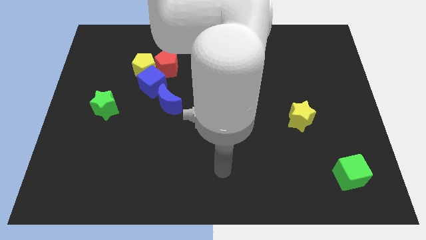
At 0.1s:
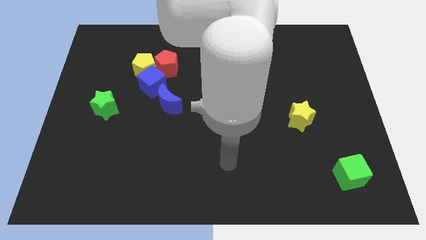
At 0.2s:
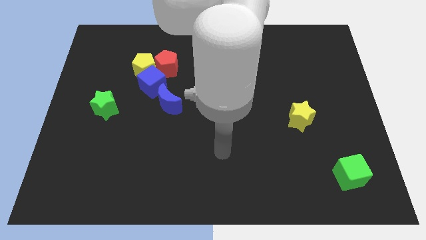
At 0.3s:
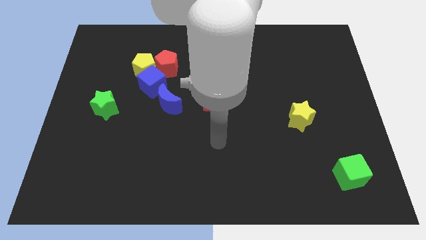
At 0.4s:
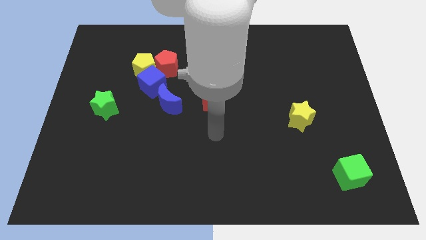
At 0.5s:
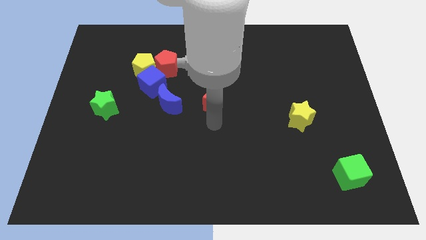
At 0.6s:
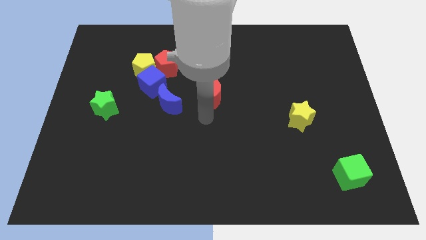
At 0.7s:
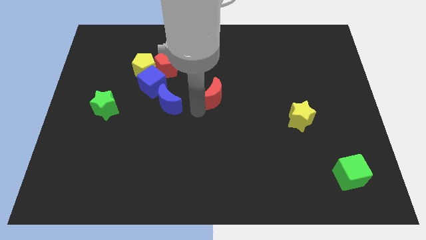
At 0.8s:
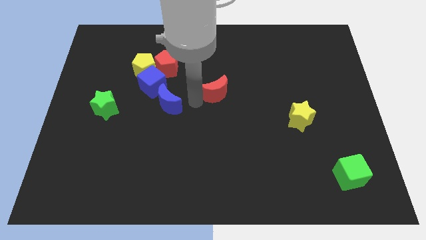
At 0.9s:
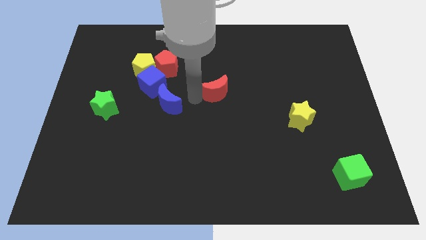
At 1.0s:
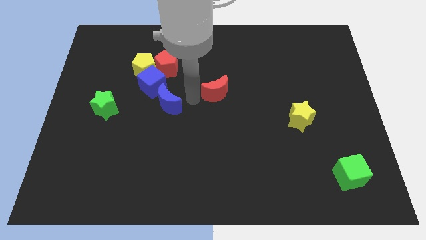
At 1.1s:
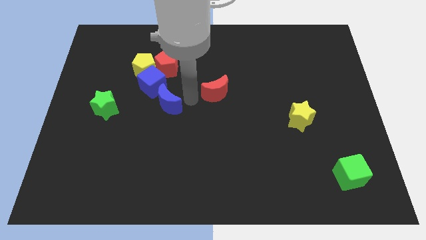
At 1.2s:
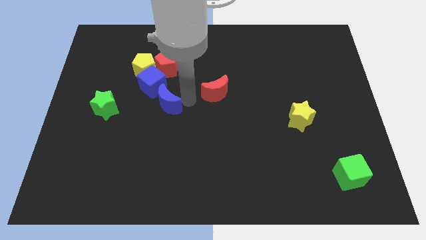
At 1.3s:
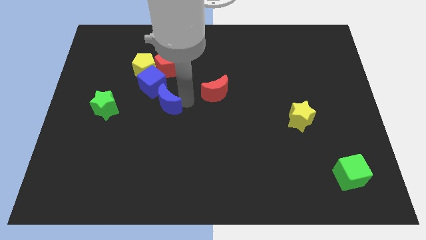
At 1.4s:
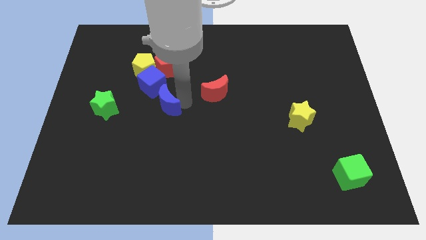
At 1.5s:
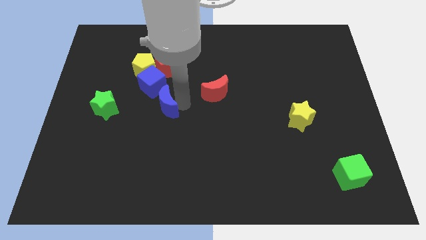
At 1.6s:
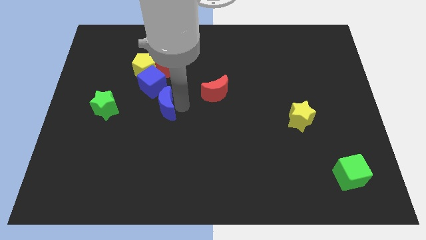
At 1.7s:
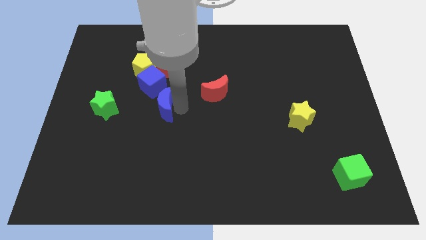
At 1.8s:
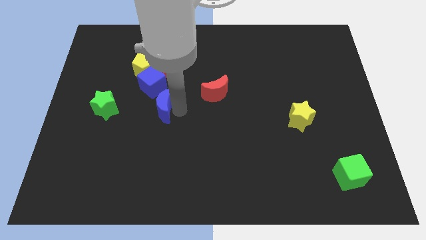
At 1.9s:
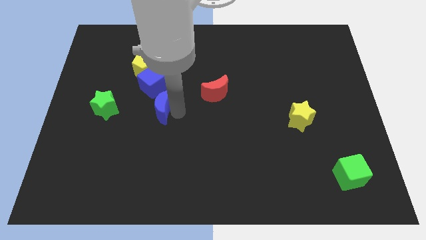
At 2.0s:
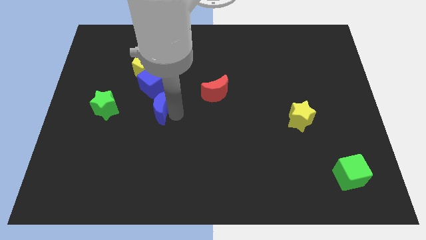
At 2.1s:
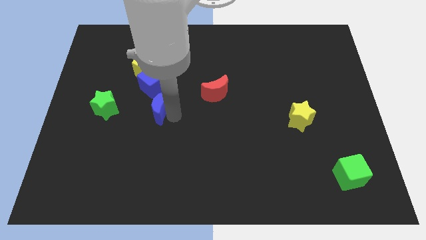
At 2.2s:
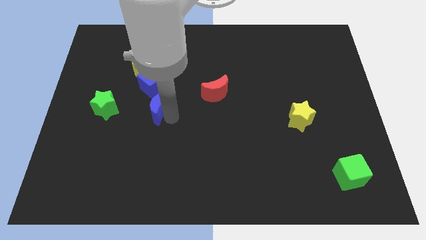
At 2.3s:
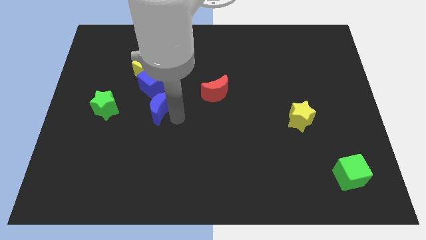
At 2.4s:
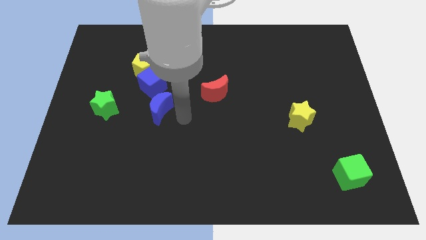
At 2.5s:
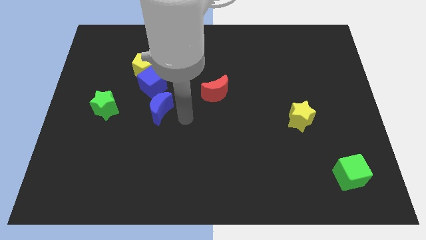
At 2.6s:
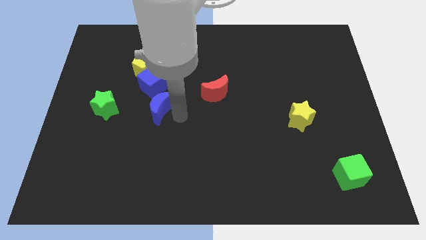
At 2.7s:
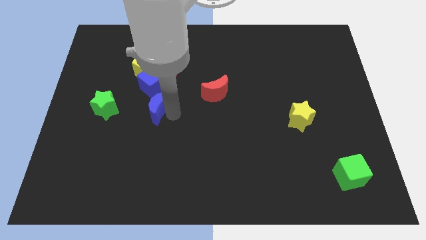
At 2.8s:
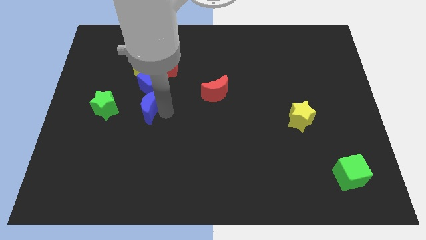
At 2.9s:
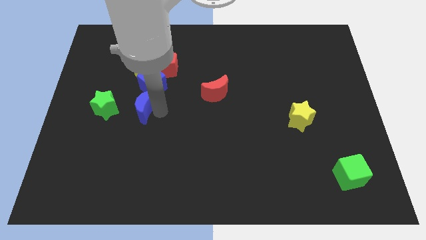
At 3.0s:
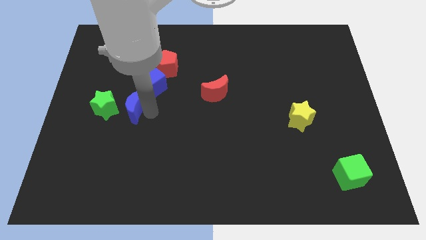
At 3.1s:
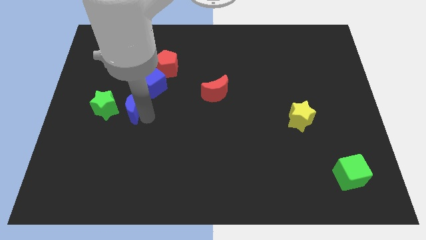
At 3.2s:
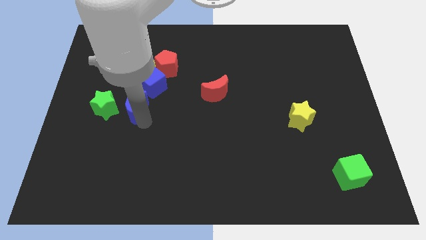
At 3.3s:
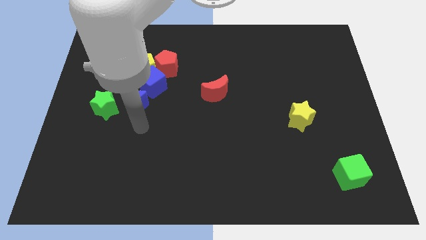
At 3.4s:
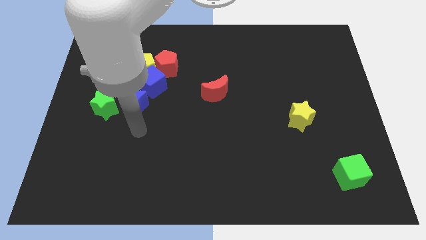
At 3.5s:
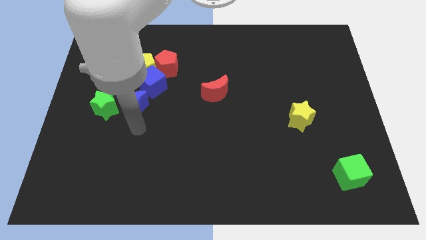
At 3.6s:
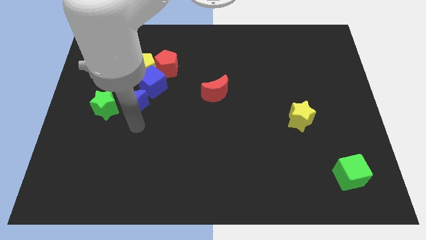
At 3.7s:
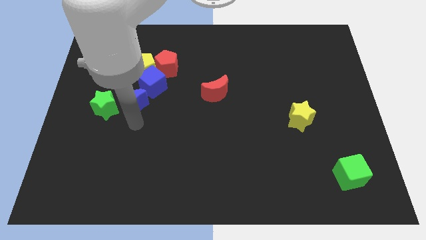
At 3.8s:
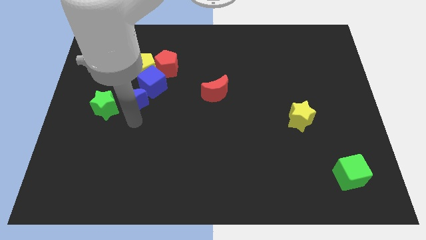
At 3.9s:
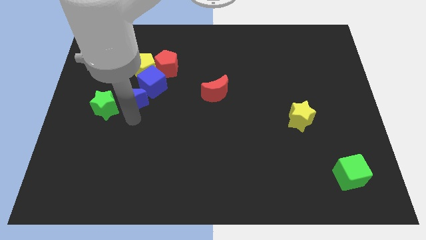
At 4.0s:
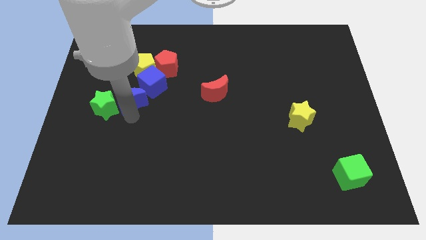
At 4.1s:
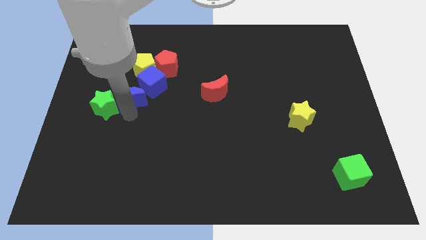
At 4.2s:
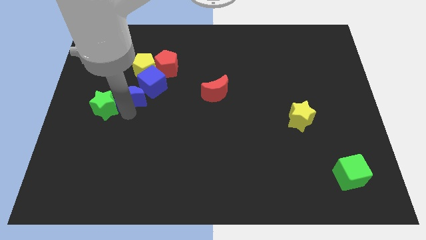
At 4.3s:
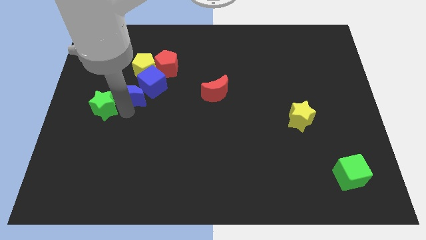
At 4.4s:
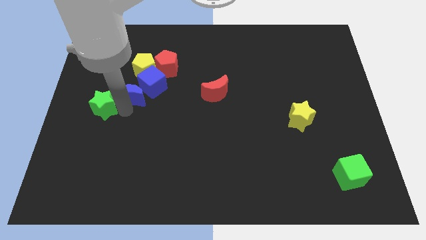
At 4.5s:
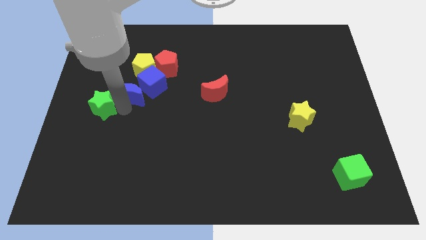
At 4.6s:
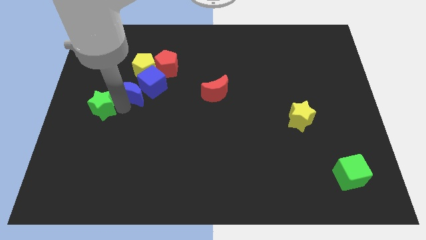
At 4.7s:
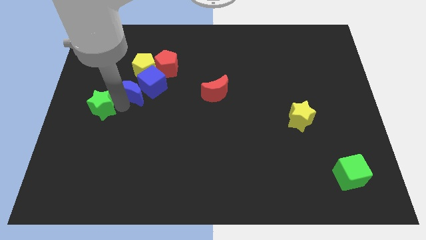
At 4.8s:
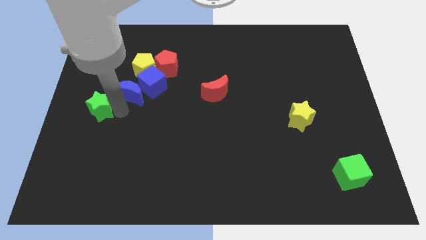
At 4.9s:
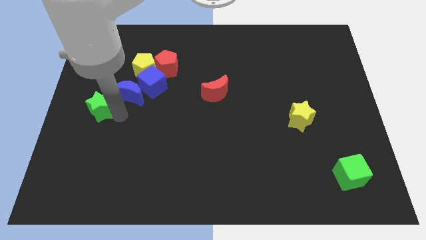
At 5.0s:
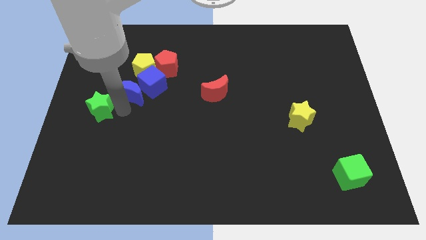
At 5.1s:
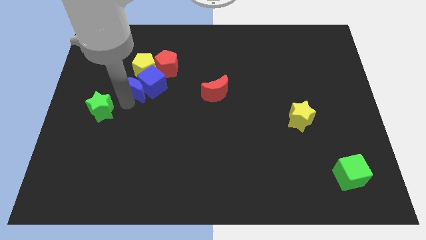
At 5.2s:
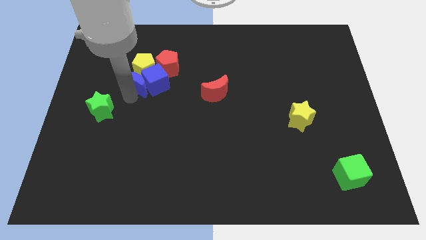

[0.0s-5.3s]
move the blue moon to the yellow pentagon

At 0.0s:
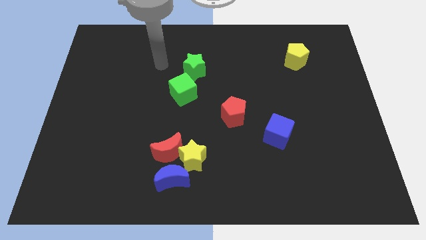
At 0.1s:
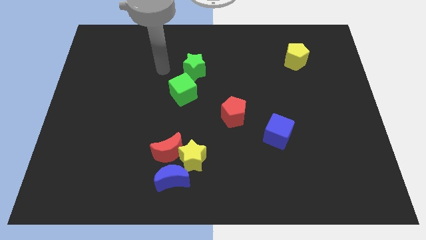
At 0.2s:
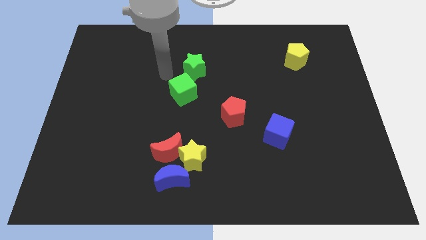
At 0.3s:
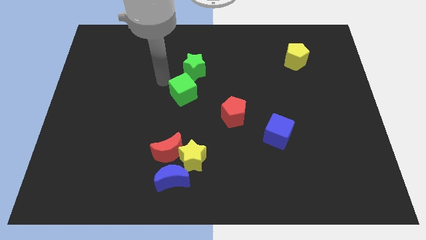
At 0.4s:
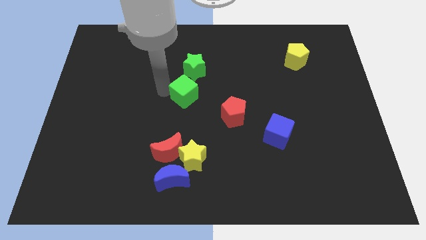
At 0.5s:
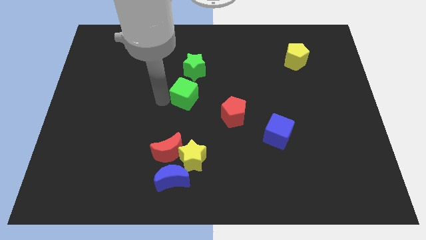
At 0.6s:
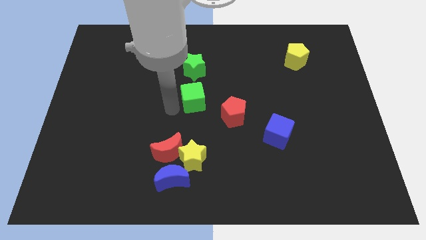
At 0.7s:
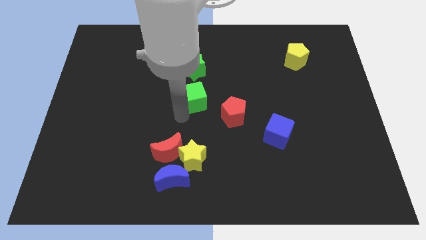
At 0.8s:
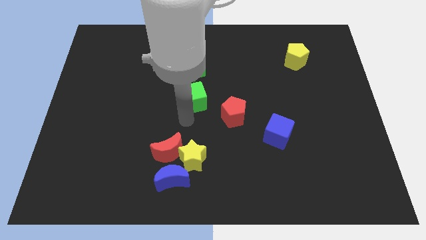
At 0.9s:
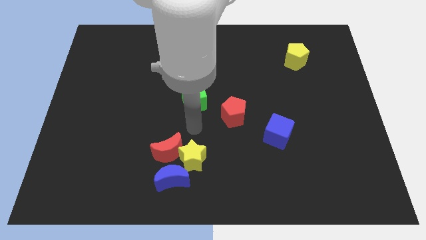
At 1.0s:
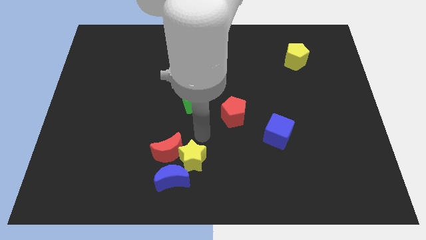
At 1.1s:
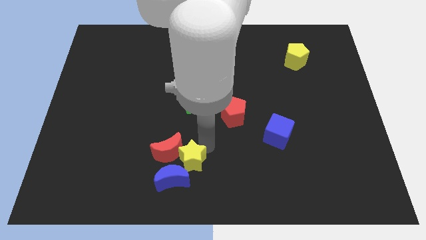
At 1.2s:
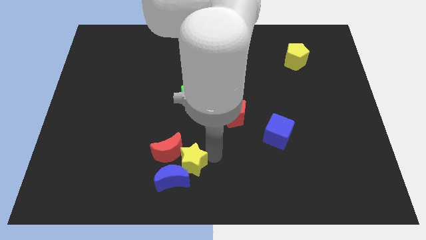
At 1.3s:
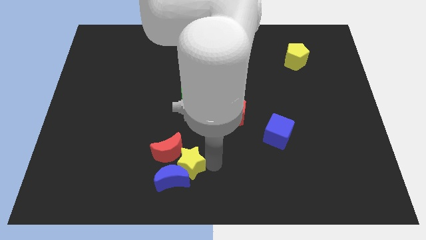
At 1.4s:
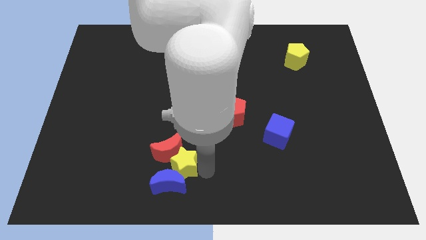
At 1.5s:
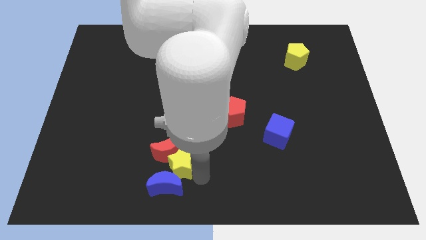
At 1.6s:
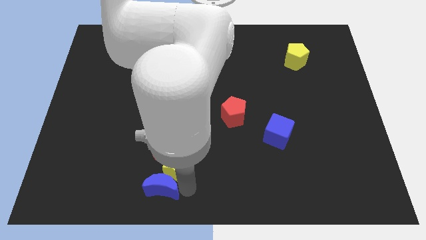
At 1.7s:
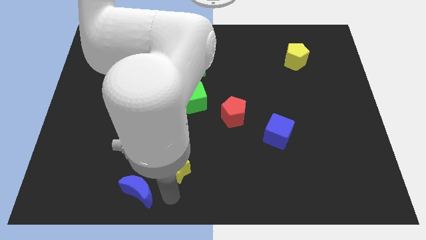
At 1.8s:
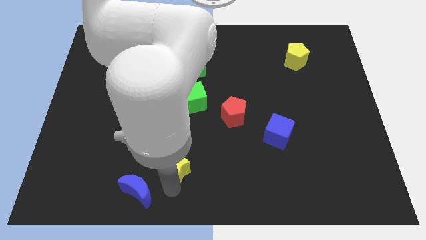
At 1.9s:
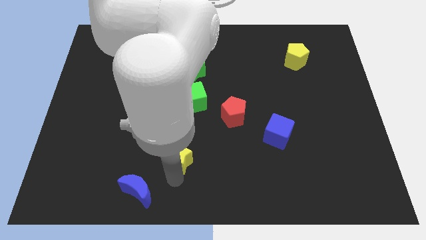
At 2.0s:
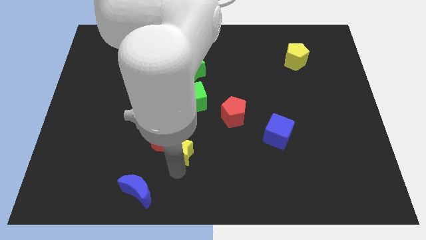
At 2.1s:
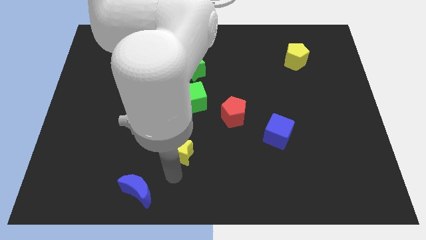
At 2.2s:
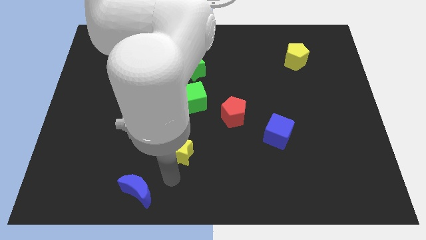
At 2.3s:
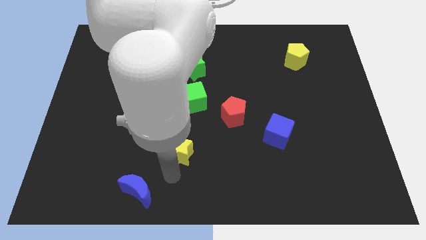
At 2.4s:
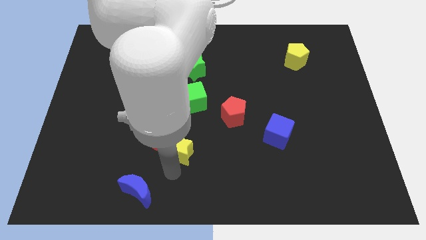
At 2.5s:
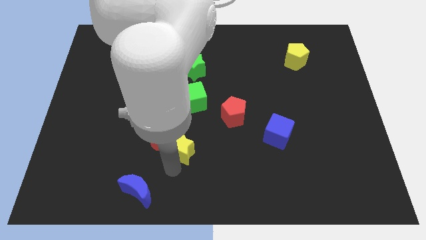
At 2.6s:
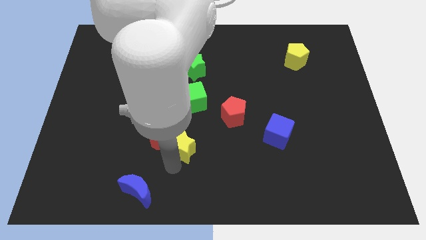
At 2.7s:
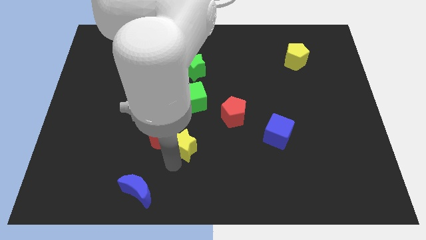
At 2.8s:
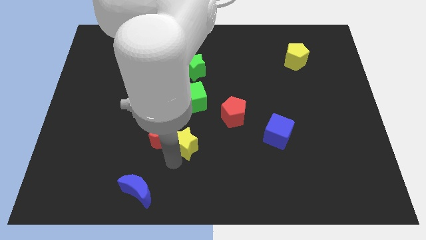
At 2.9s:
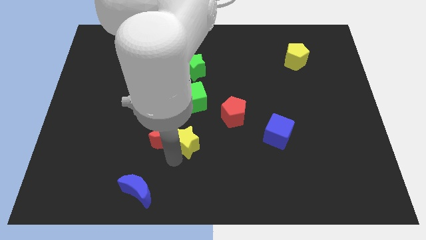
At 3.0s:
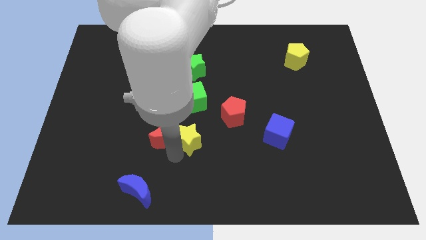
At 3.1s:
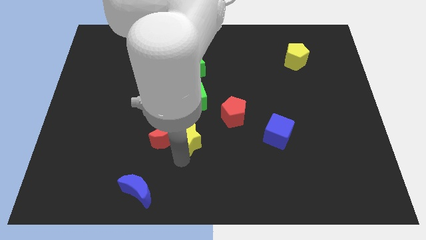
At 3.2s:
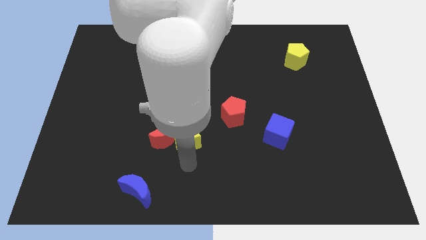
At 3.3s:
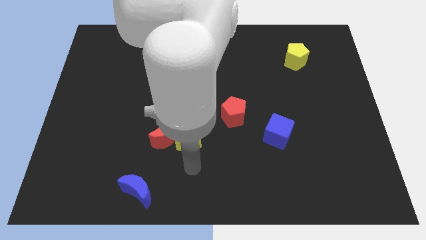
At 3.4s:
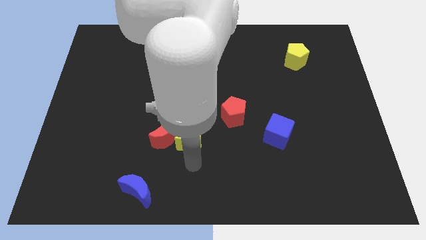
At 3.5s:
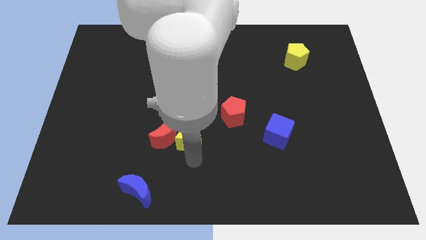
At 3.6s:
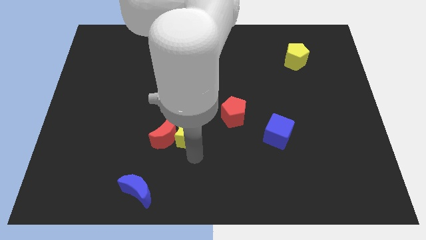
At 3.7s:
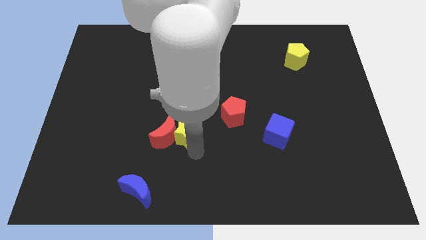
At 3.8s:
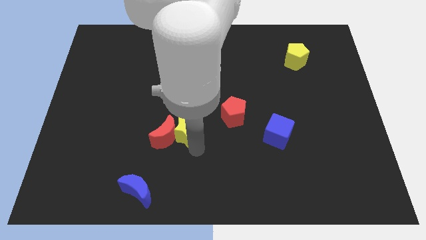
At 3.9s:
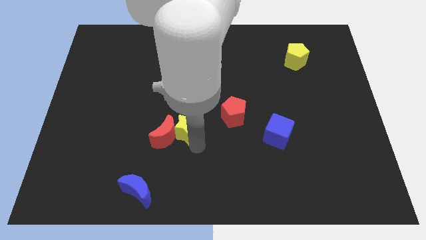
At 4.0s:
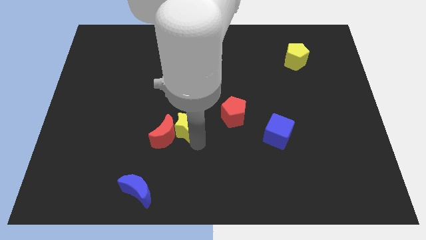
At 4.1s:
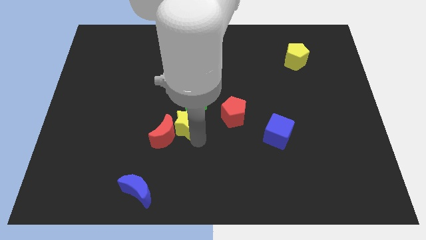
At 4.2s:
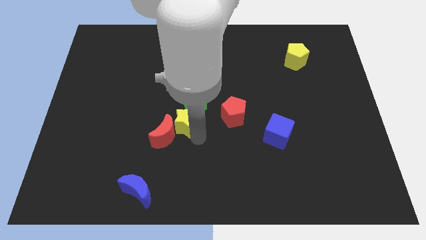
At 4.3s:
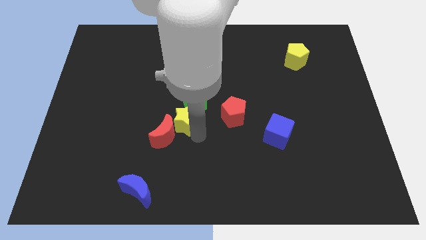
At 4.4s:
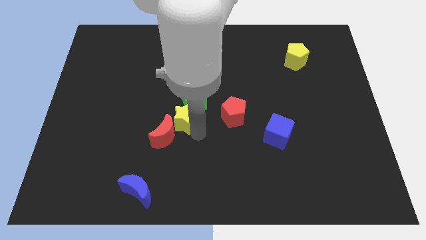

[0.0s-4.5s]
move the yellow star next to the green cube
